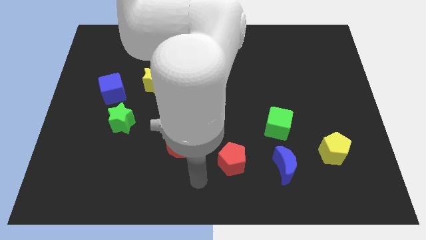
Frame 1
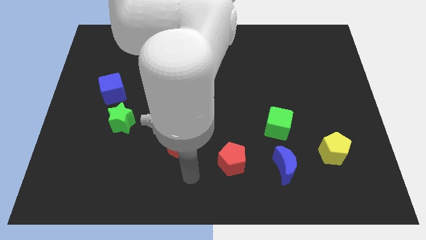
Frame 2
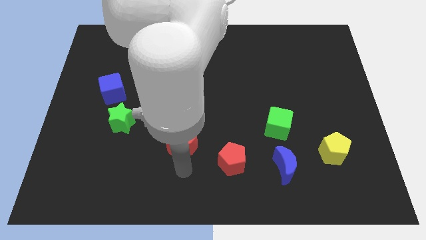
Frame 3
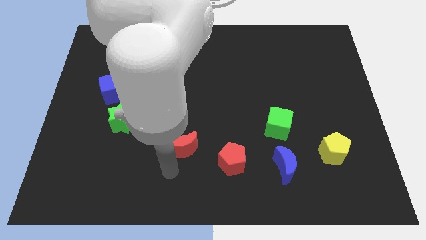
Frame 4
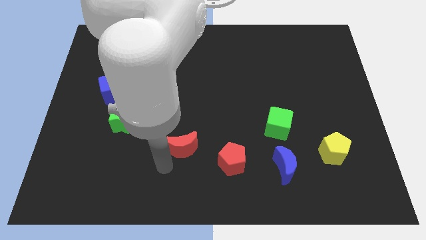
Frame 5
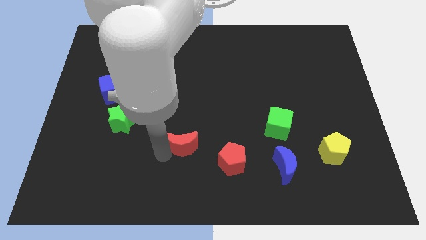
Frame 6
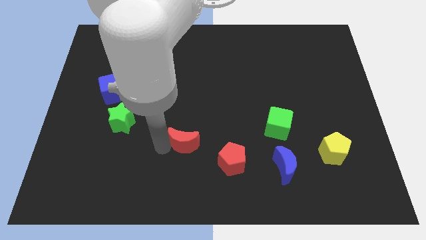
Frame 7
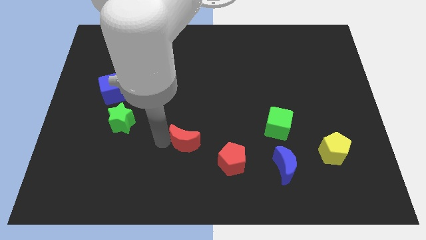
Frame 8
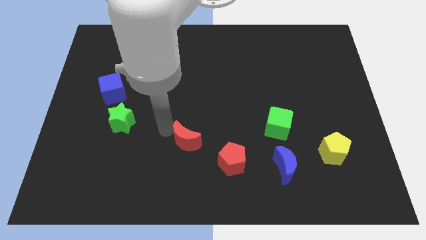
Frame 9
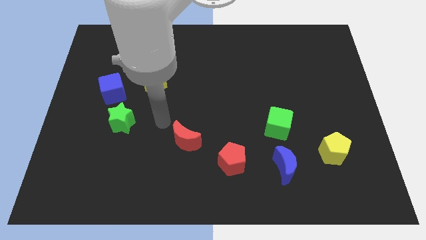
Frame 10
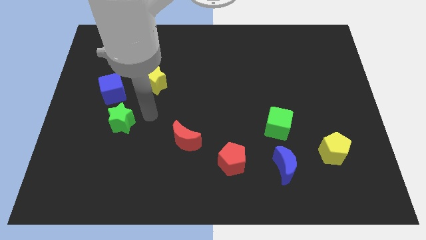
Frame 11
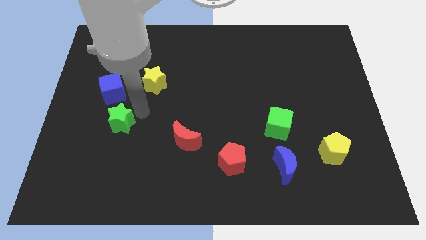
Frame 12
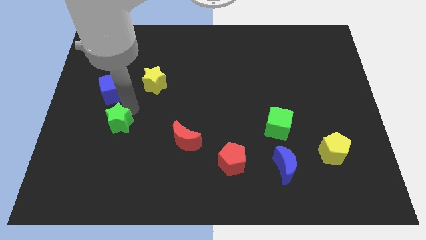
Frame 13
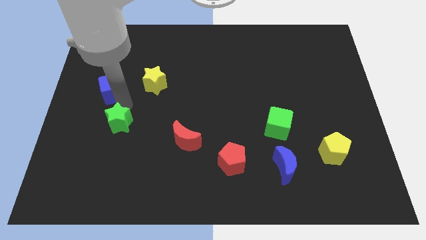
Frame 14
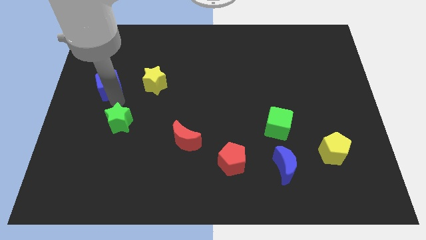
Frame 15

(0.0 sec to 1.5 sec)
move the green star away from the blue cube

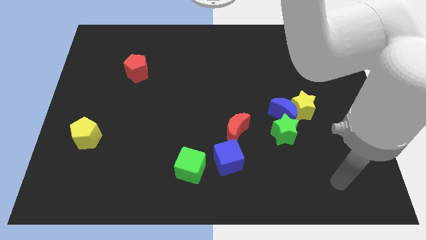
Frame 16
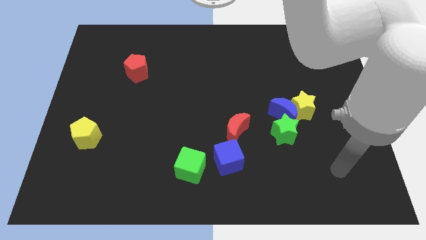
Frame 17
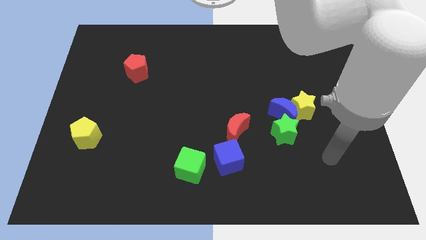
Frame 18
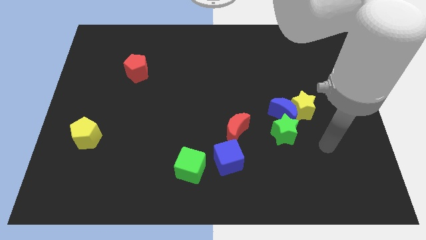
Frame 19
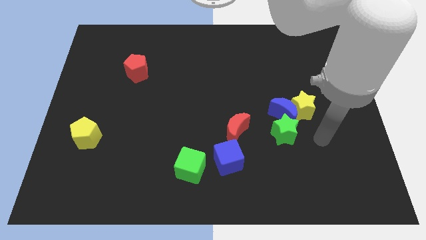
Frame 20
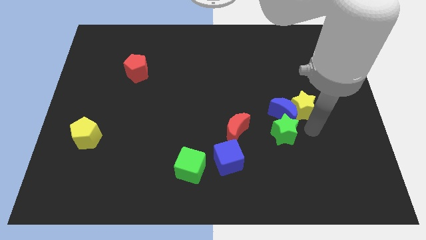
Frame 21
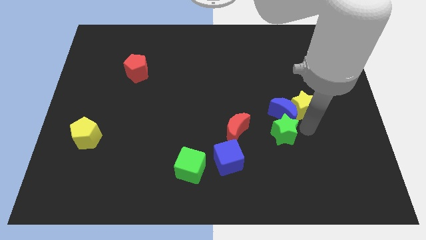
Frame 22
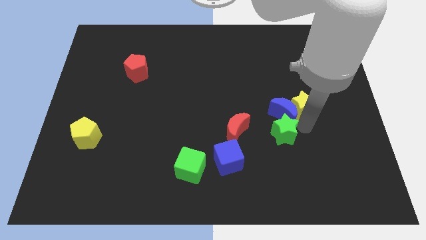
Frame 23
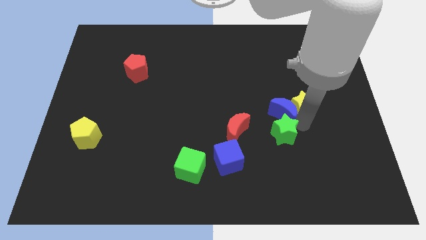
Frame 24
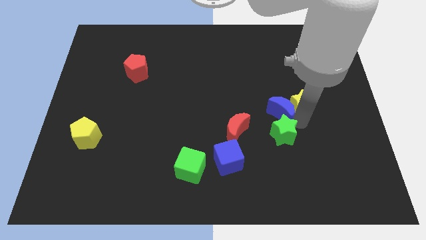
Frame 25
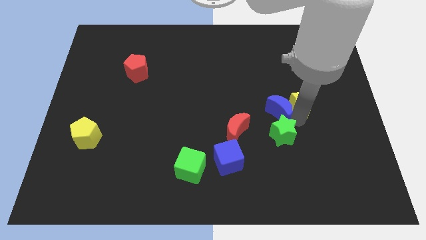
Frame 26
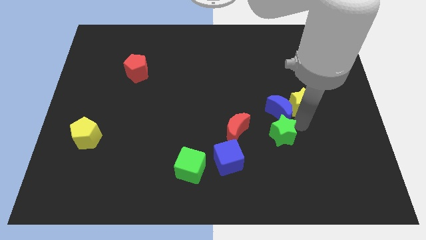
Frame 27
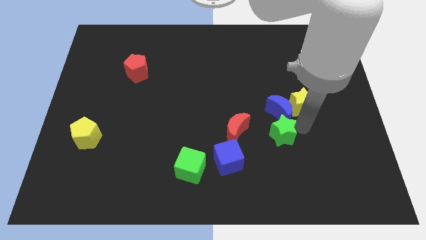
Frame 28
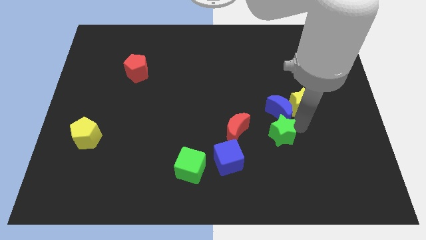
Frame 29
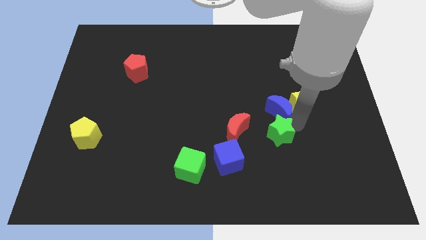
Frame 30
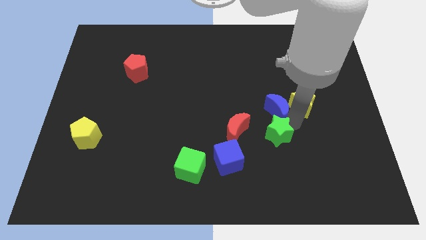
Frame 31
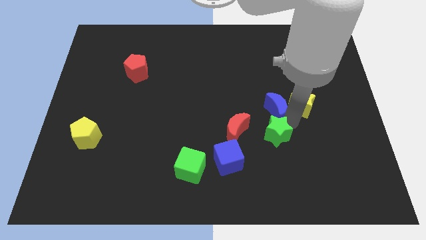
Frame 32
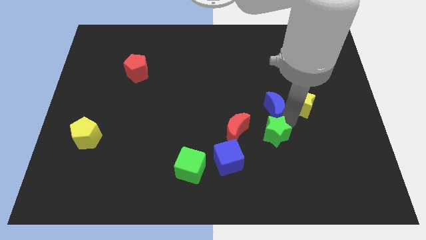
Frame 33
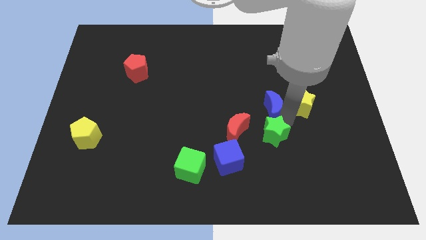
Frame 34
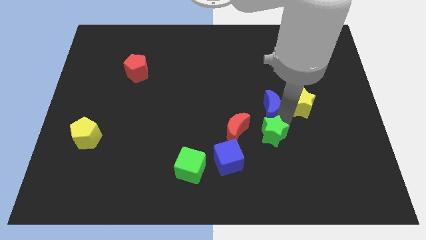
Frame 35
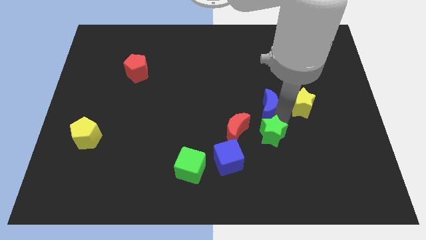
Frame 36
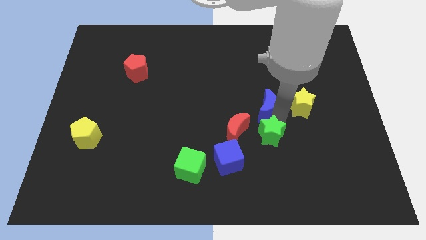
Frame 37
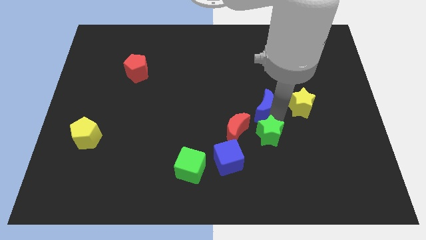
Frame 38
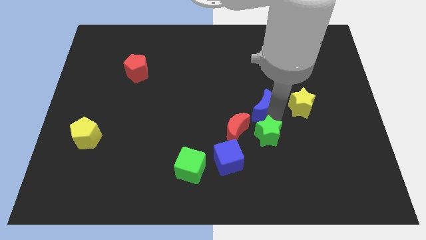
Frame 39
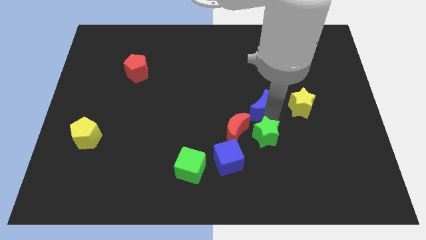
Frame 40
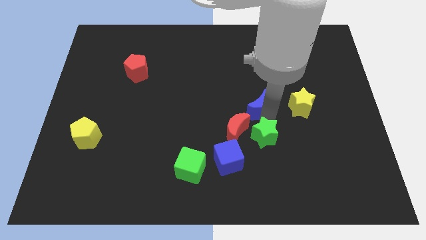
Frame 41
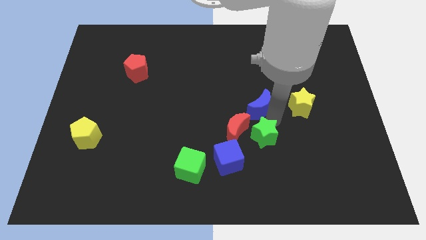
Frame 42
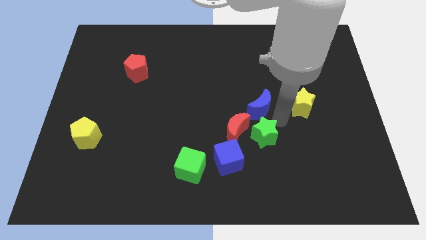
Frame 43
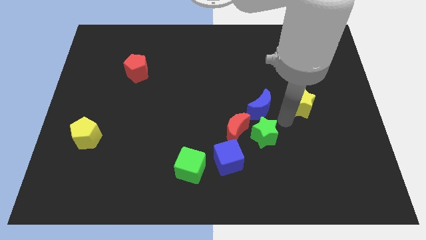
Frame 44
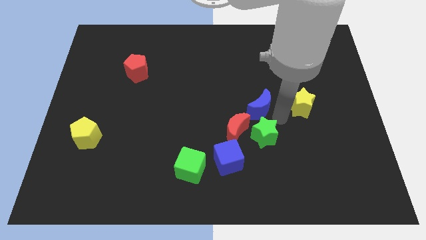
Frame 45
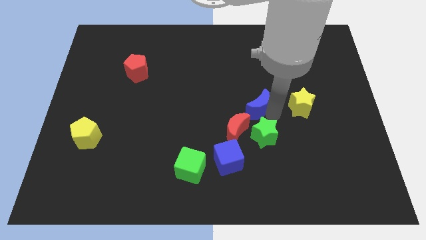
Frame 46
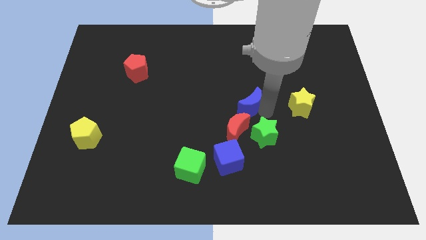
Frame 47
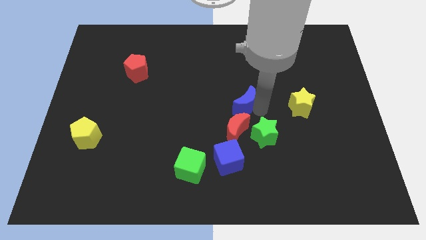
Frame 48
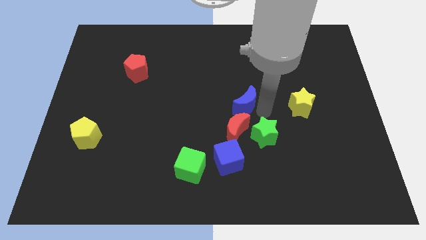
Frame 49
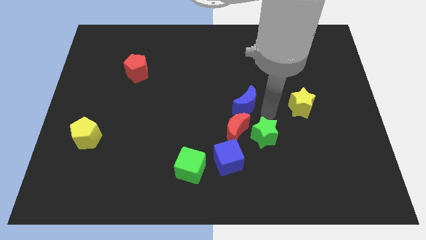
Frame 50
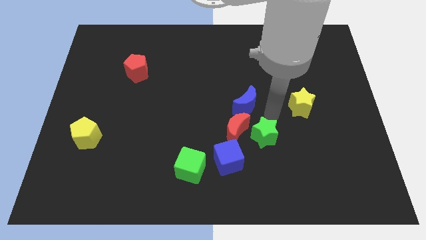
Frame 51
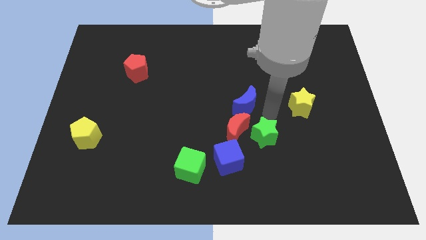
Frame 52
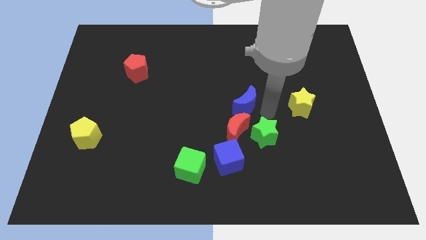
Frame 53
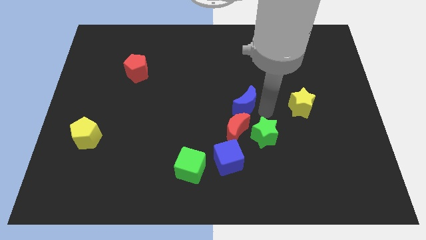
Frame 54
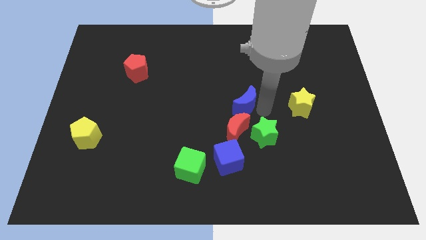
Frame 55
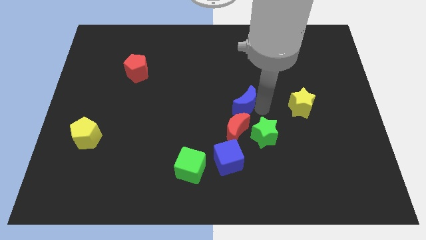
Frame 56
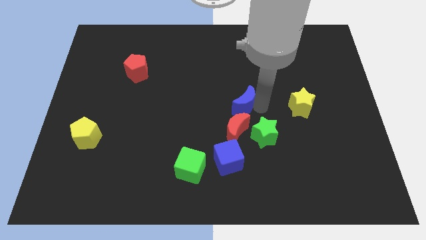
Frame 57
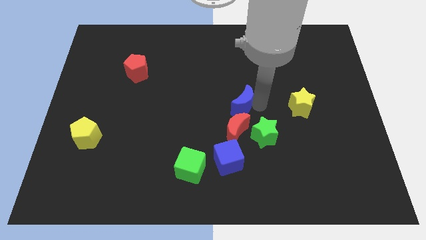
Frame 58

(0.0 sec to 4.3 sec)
separate the blue moon from the yellow star and green star

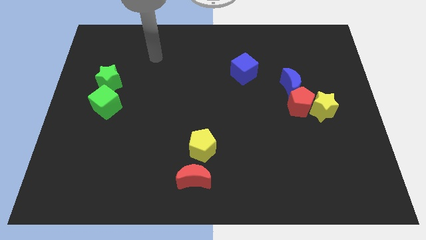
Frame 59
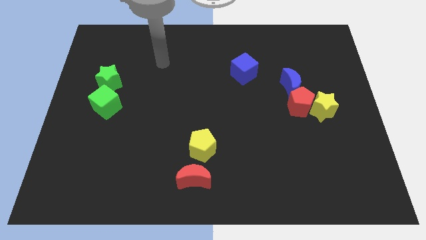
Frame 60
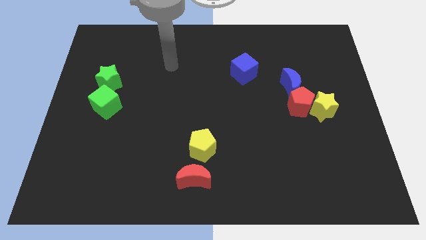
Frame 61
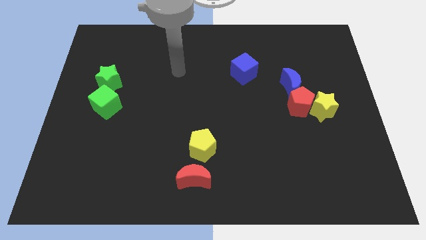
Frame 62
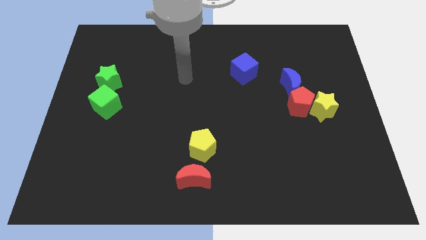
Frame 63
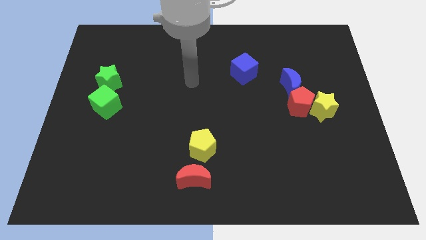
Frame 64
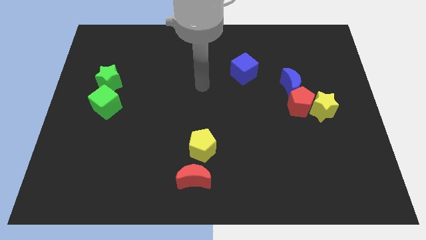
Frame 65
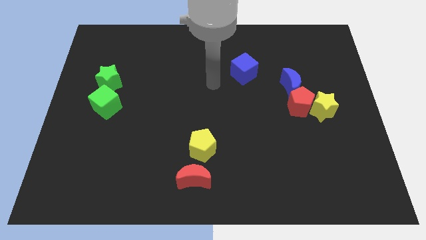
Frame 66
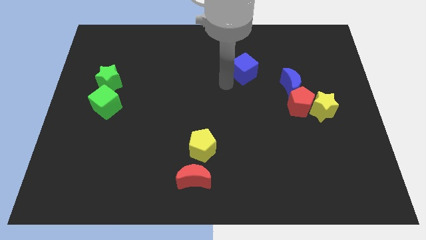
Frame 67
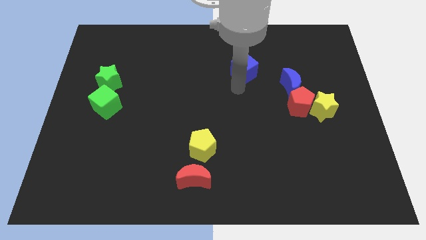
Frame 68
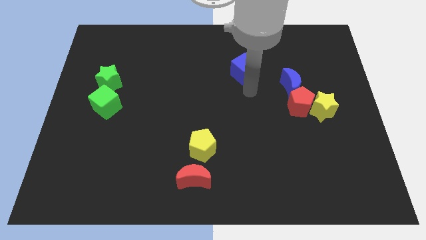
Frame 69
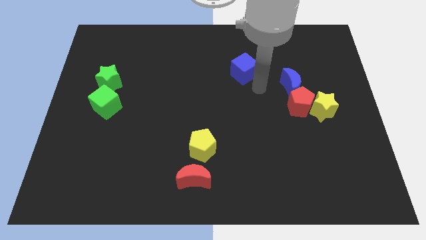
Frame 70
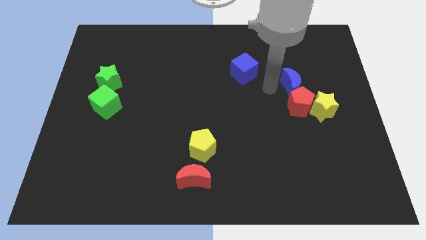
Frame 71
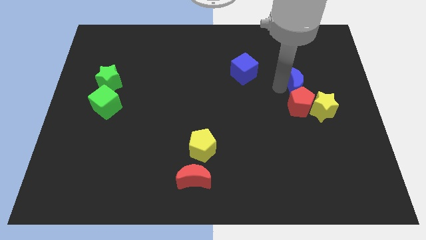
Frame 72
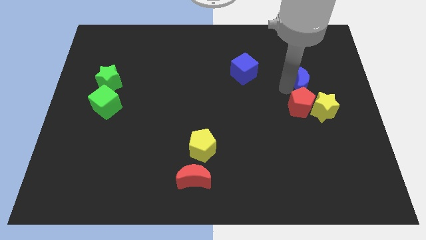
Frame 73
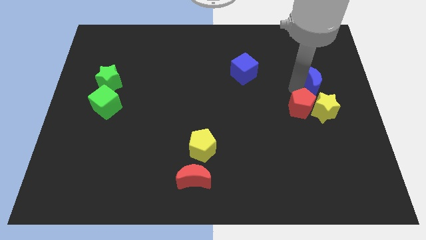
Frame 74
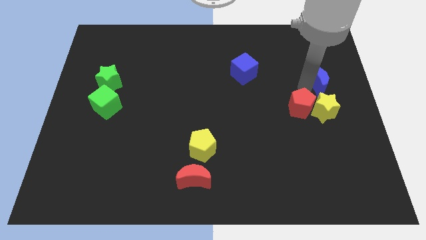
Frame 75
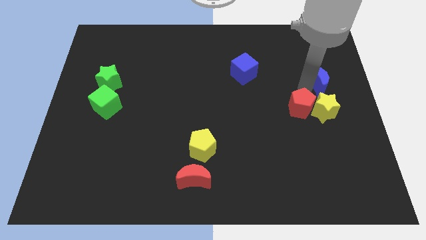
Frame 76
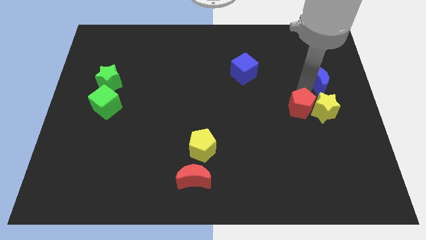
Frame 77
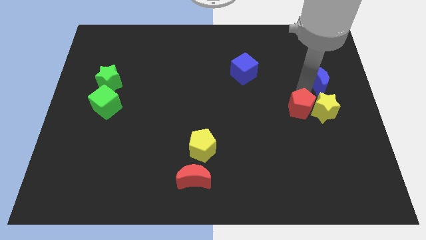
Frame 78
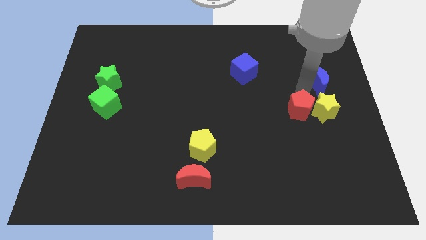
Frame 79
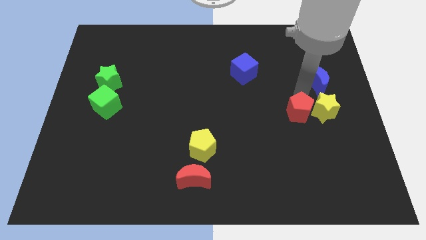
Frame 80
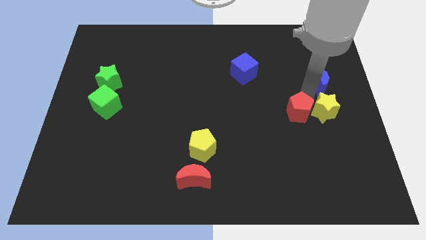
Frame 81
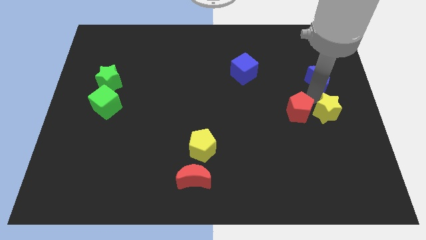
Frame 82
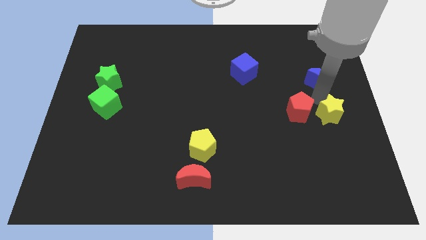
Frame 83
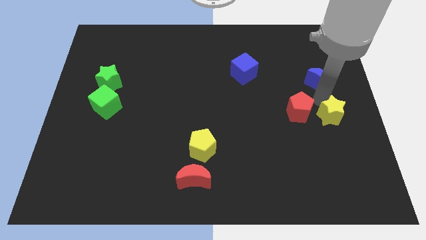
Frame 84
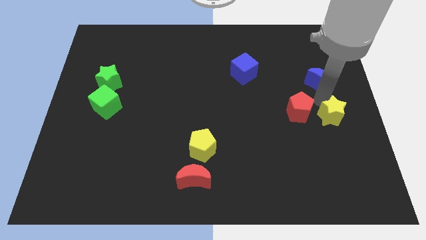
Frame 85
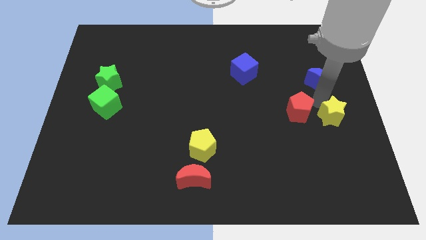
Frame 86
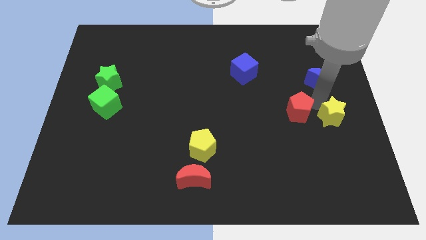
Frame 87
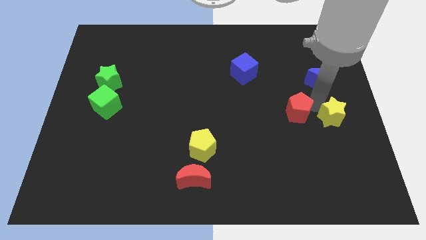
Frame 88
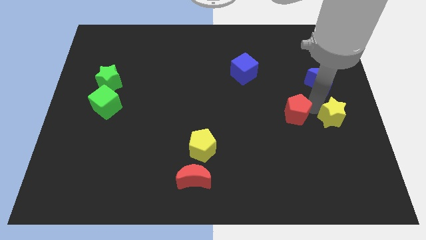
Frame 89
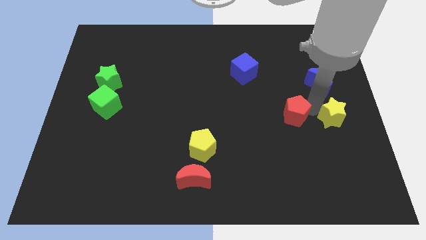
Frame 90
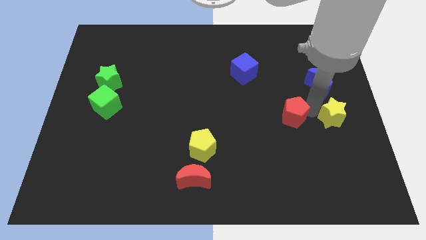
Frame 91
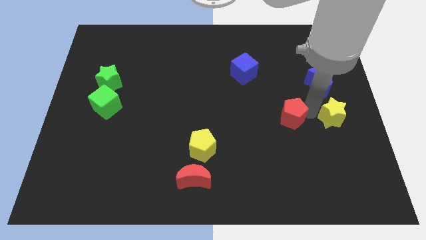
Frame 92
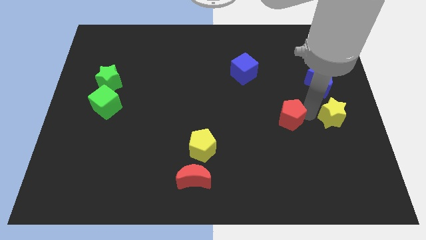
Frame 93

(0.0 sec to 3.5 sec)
move the red pentagon away from the yellow star and blue moon
